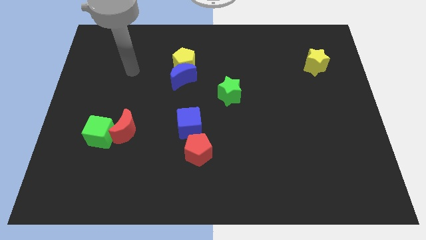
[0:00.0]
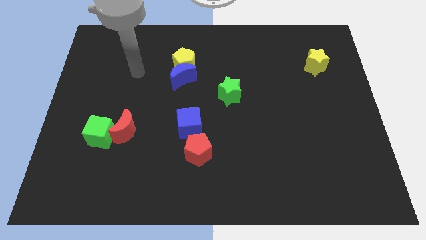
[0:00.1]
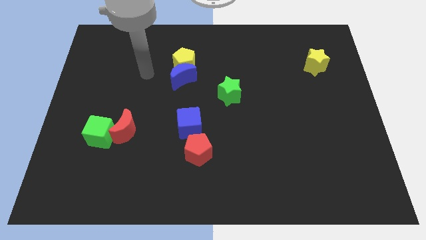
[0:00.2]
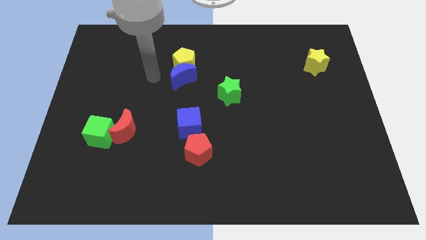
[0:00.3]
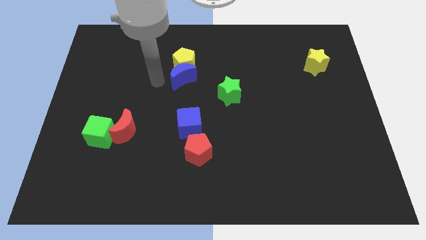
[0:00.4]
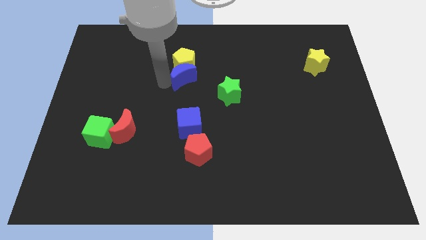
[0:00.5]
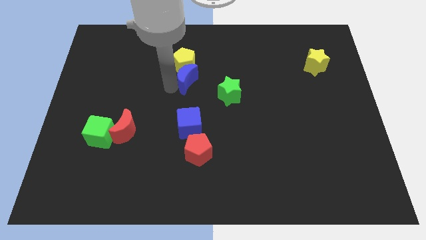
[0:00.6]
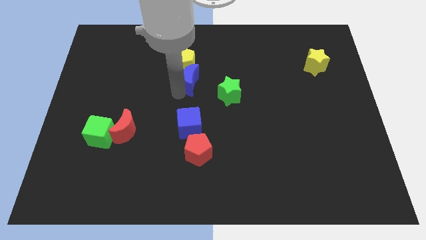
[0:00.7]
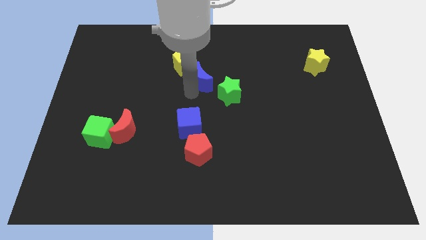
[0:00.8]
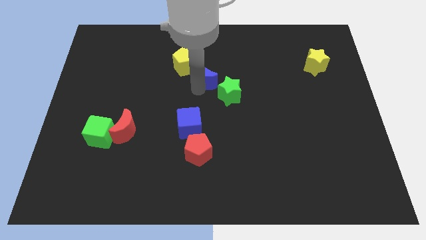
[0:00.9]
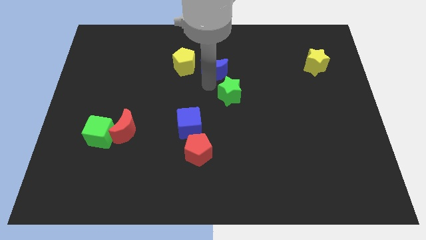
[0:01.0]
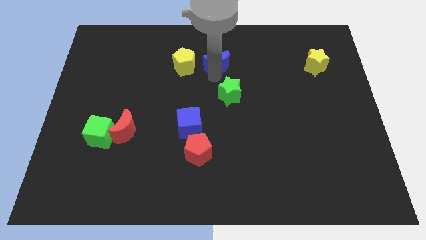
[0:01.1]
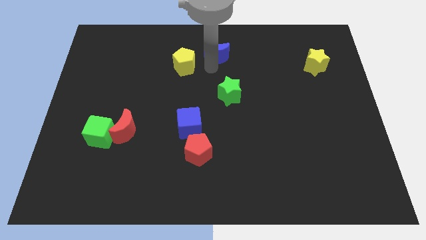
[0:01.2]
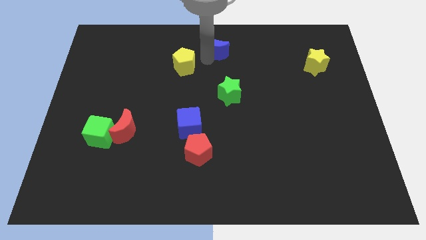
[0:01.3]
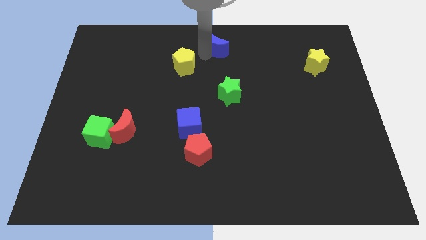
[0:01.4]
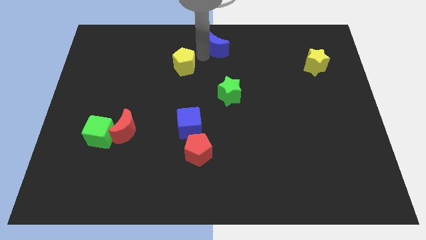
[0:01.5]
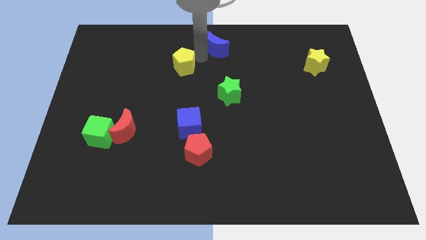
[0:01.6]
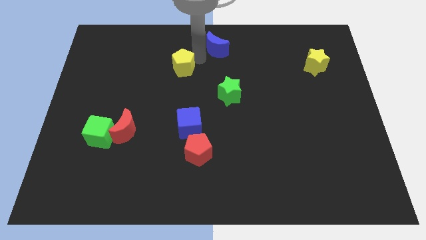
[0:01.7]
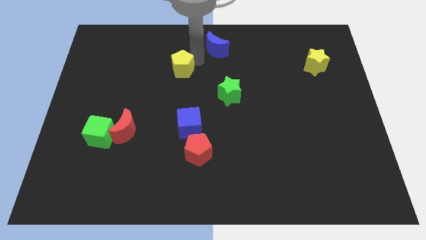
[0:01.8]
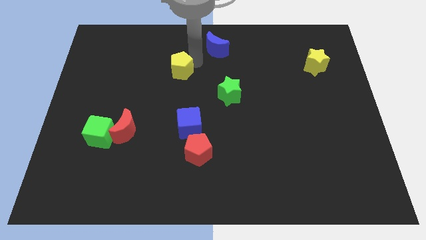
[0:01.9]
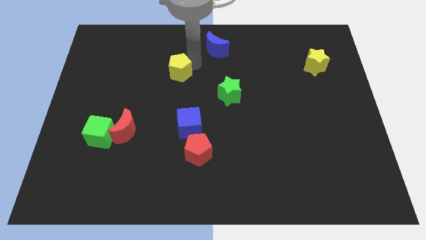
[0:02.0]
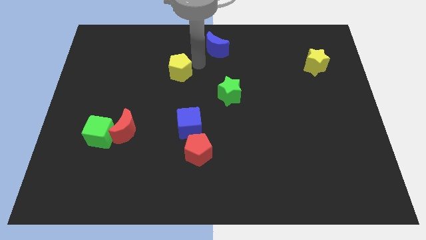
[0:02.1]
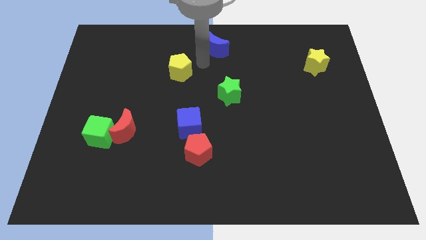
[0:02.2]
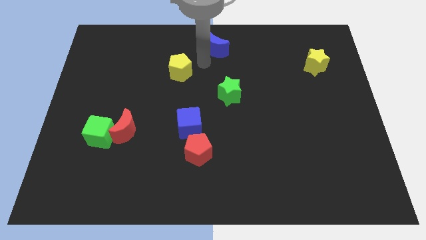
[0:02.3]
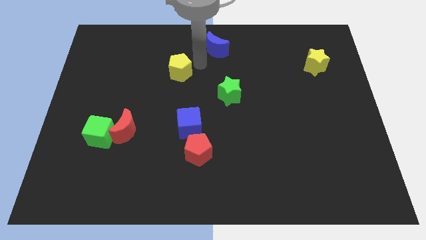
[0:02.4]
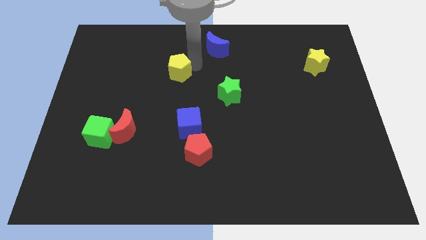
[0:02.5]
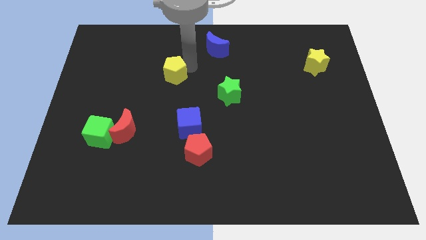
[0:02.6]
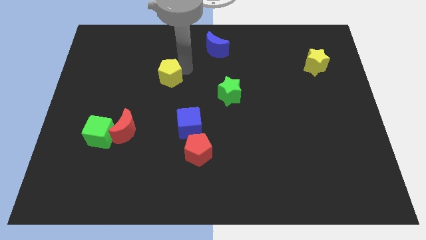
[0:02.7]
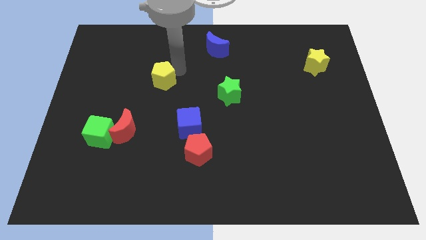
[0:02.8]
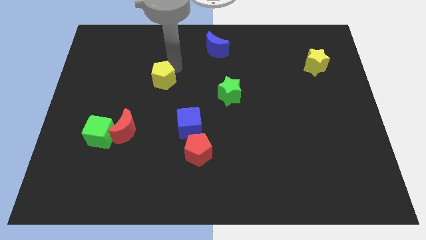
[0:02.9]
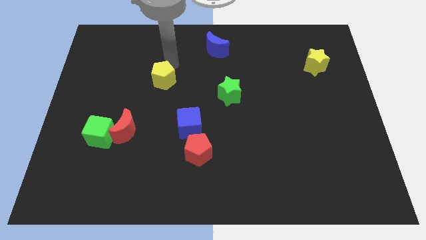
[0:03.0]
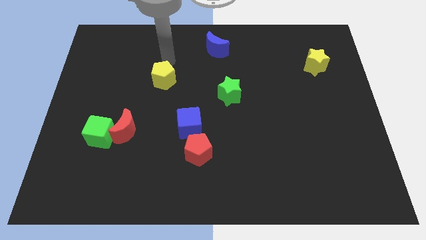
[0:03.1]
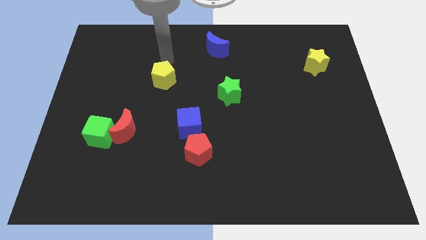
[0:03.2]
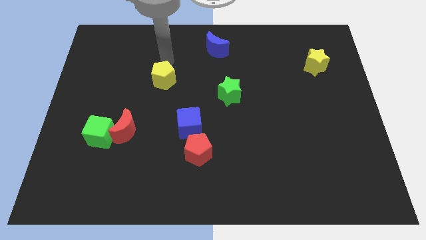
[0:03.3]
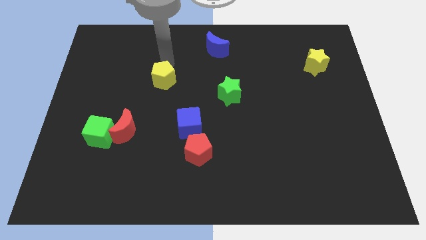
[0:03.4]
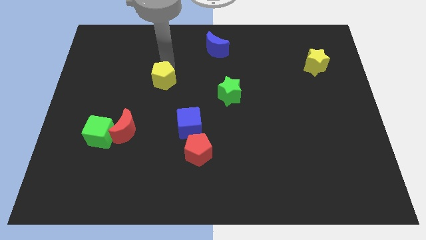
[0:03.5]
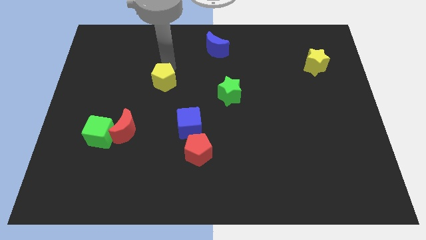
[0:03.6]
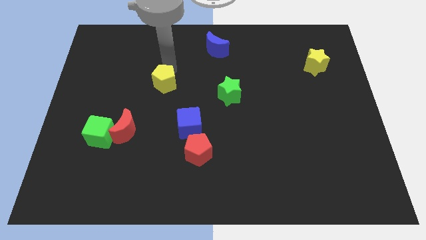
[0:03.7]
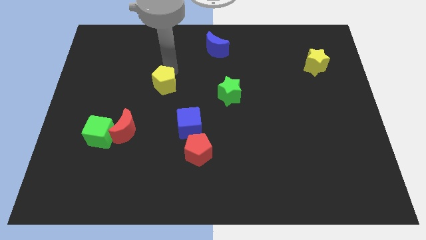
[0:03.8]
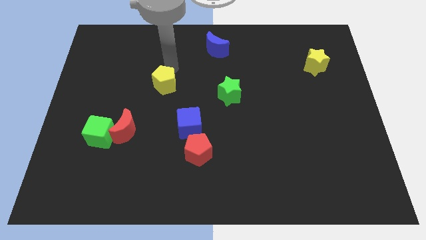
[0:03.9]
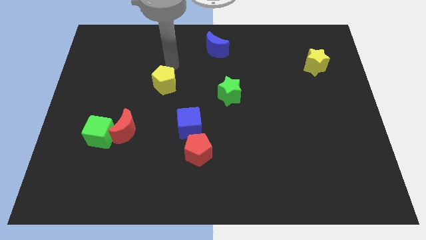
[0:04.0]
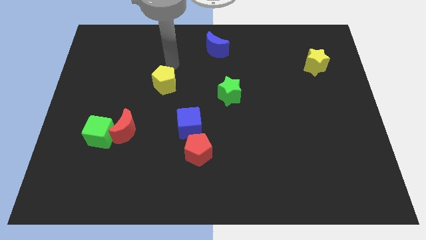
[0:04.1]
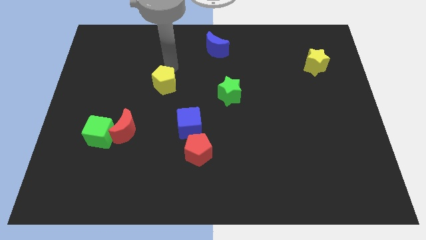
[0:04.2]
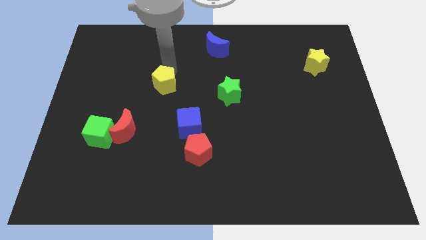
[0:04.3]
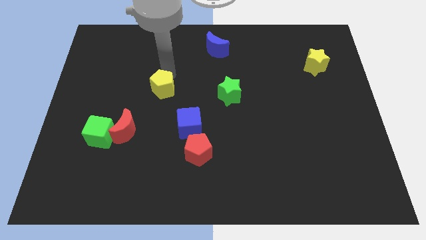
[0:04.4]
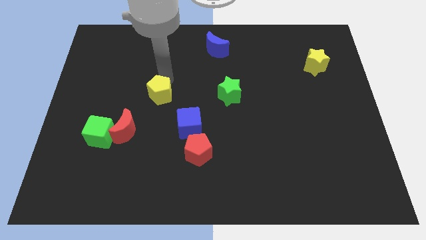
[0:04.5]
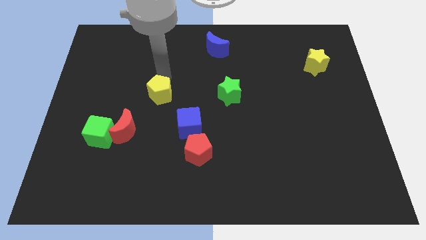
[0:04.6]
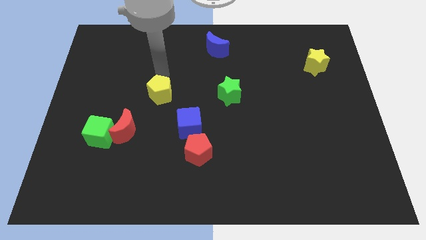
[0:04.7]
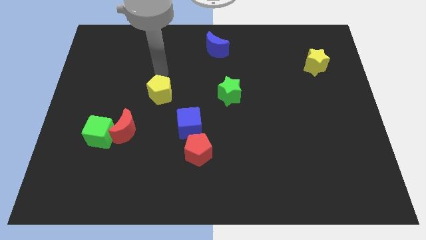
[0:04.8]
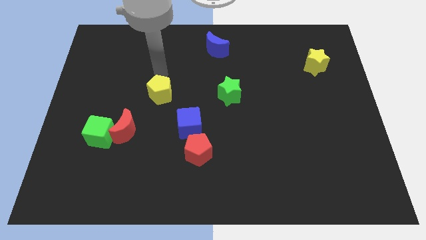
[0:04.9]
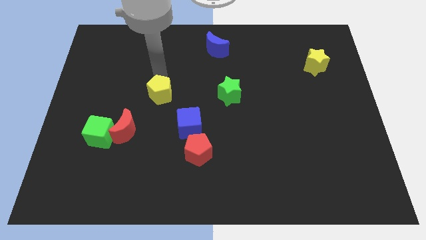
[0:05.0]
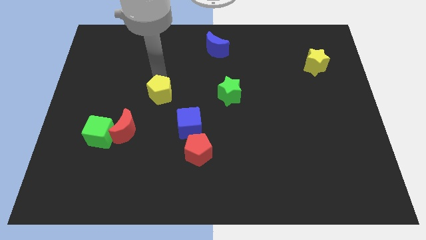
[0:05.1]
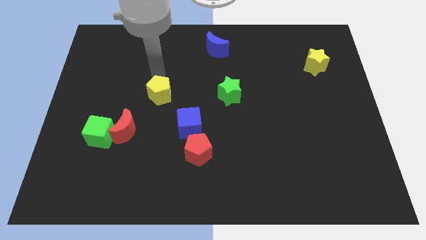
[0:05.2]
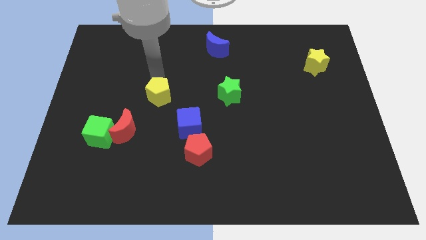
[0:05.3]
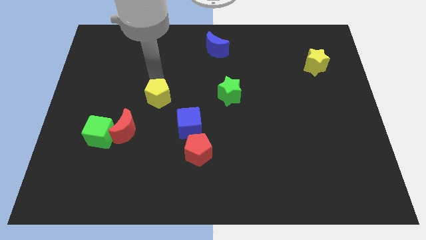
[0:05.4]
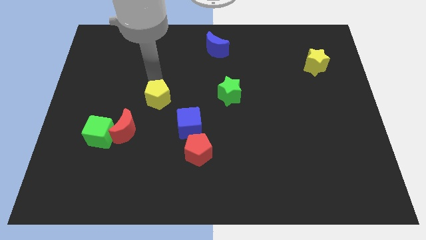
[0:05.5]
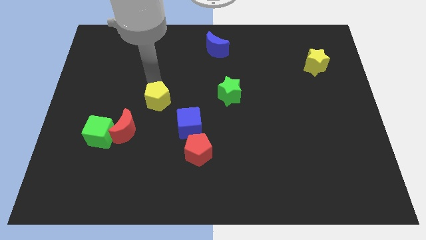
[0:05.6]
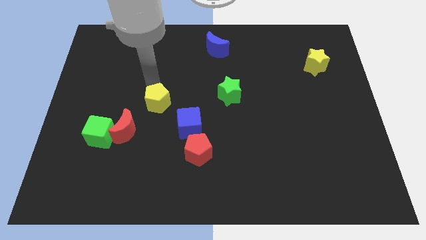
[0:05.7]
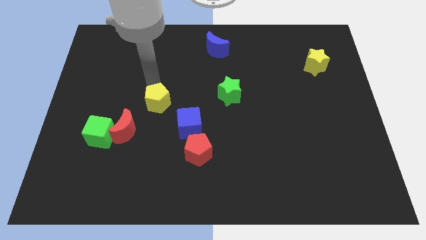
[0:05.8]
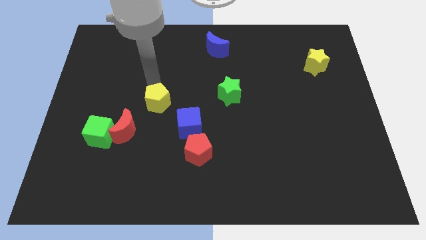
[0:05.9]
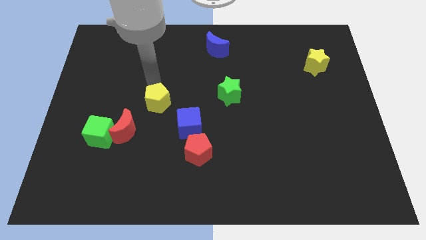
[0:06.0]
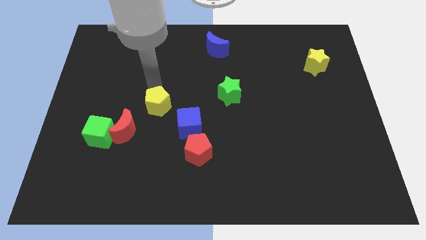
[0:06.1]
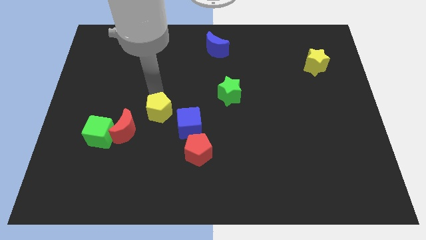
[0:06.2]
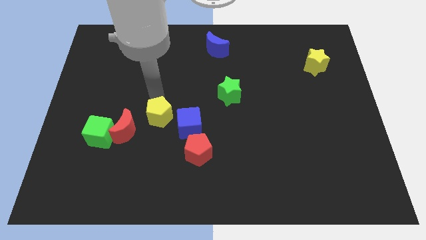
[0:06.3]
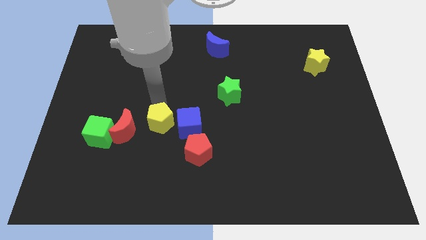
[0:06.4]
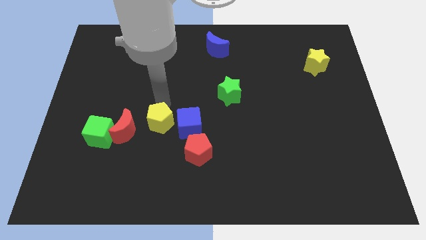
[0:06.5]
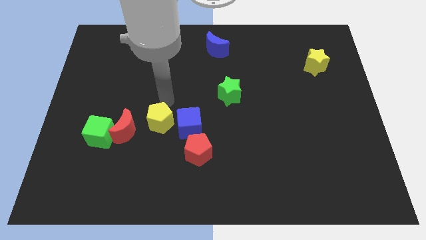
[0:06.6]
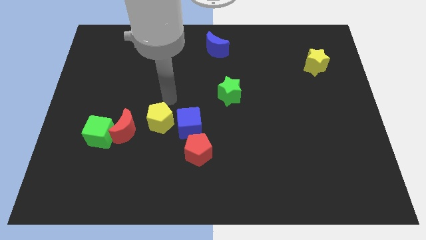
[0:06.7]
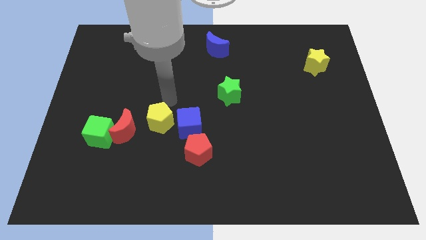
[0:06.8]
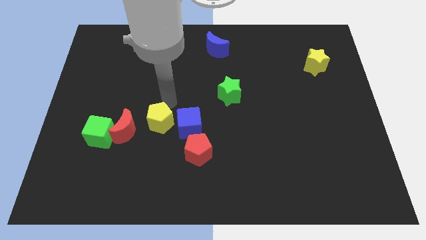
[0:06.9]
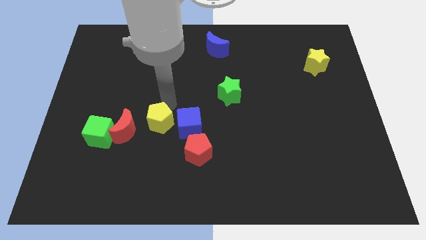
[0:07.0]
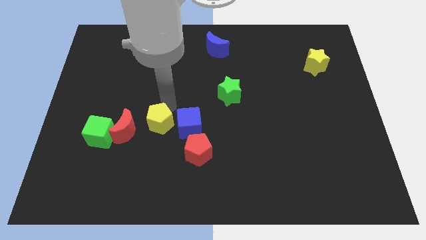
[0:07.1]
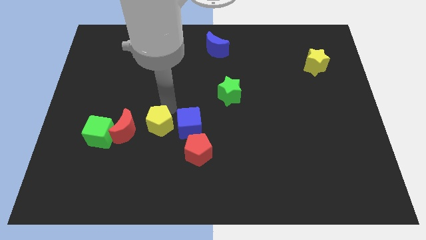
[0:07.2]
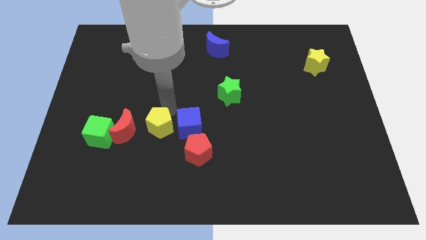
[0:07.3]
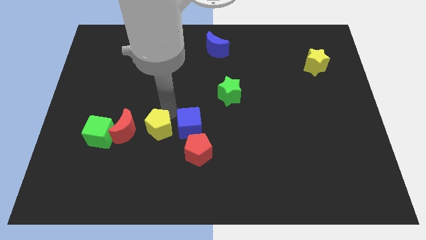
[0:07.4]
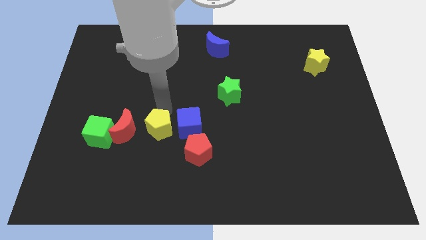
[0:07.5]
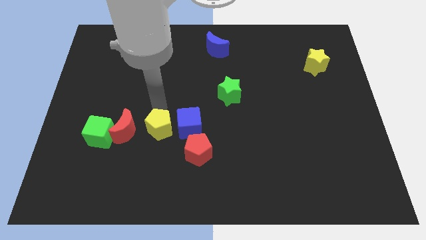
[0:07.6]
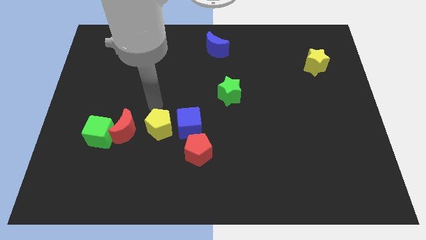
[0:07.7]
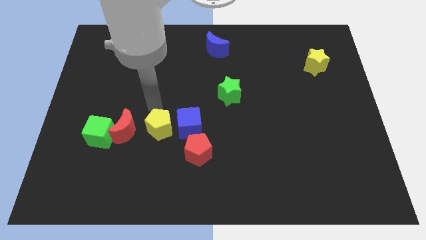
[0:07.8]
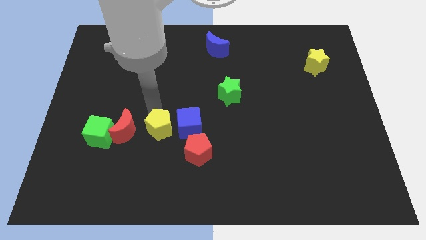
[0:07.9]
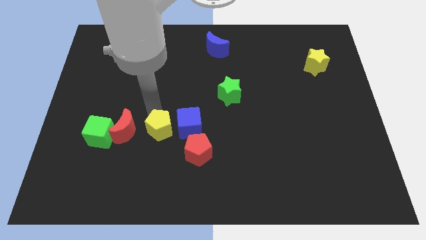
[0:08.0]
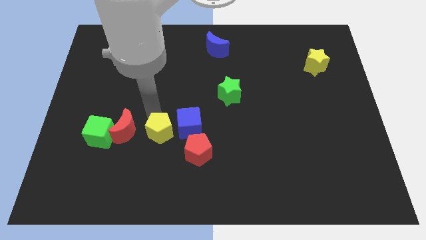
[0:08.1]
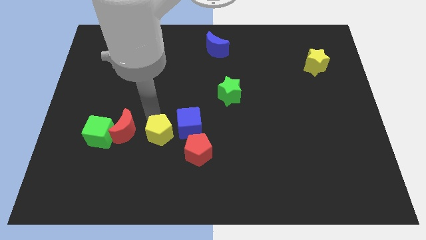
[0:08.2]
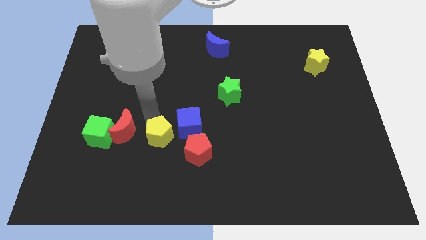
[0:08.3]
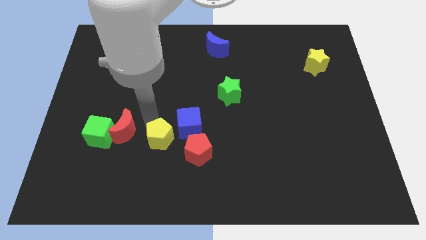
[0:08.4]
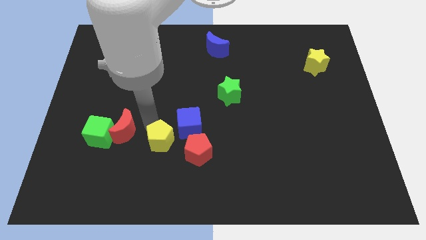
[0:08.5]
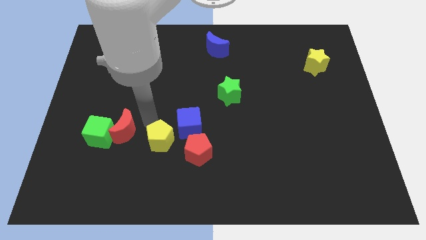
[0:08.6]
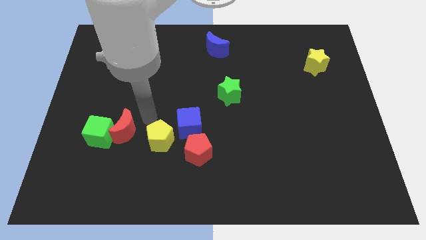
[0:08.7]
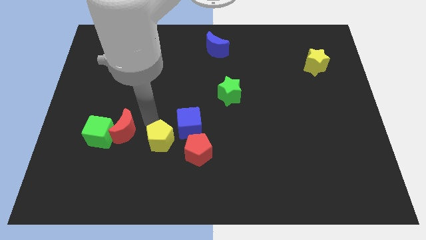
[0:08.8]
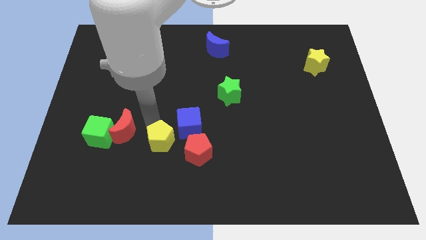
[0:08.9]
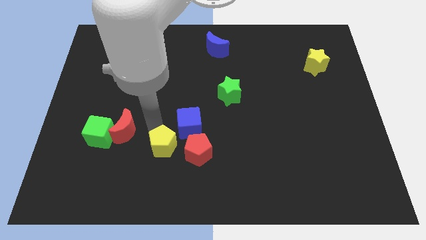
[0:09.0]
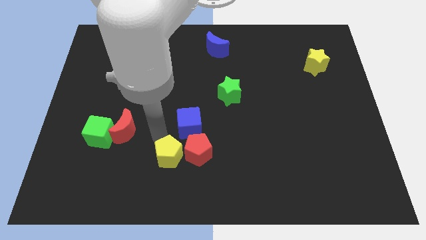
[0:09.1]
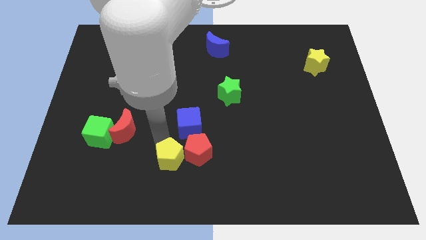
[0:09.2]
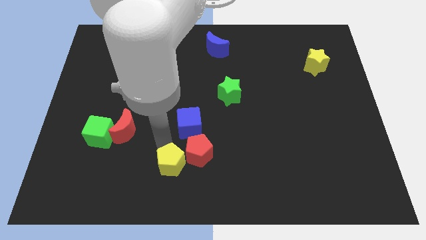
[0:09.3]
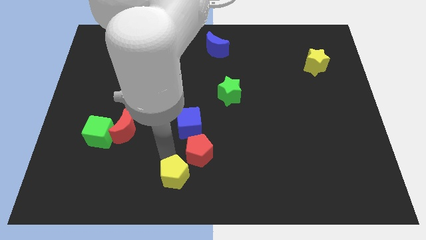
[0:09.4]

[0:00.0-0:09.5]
slide the yellow pentagon to the bottom
